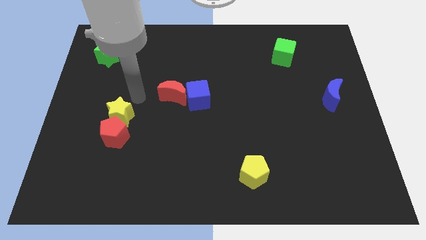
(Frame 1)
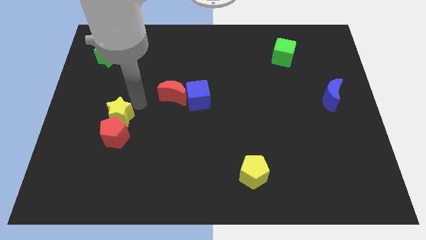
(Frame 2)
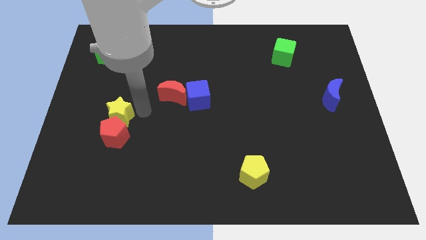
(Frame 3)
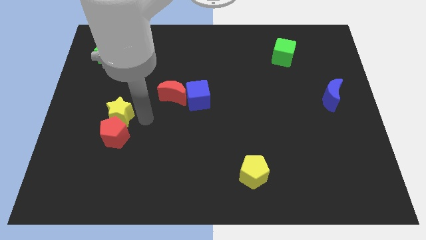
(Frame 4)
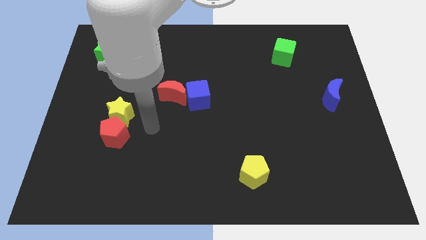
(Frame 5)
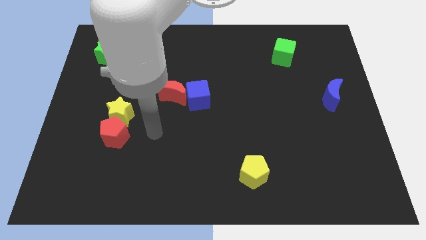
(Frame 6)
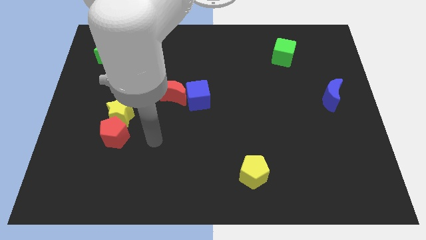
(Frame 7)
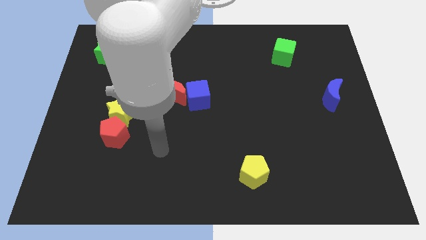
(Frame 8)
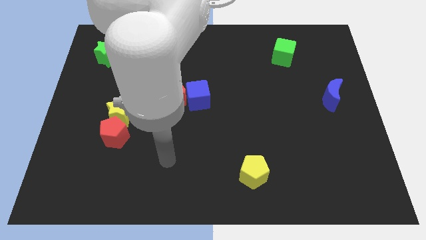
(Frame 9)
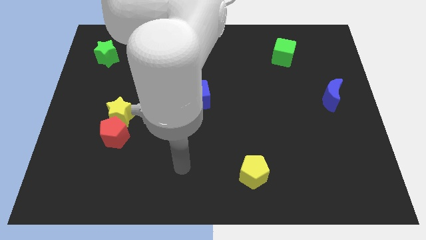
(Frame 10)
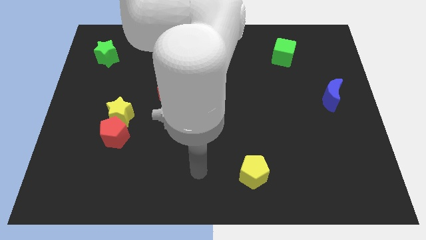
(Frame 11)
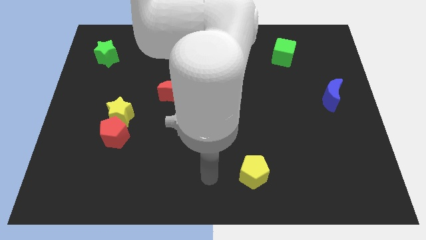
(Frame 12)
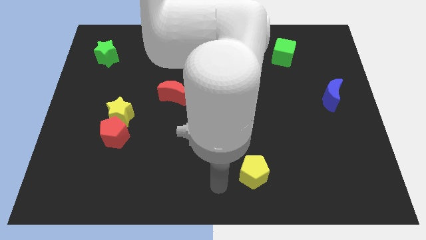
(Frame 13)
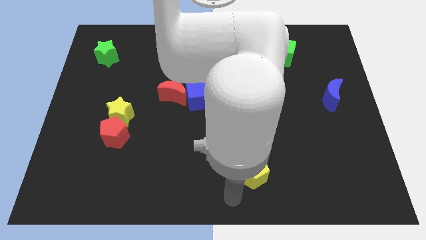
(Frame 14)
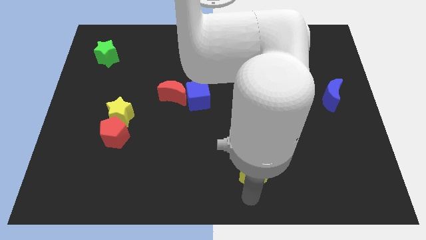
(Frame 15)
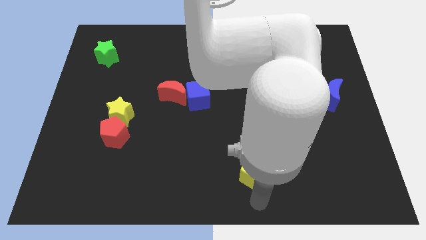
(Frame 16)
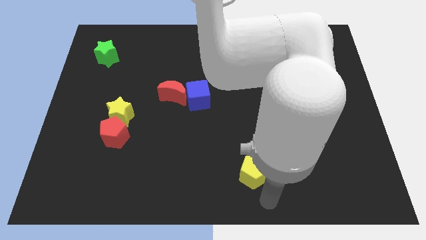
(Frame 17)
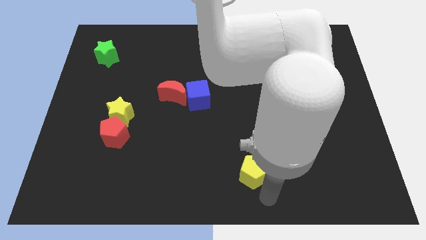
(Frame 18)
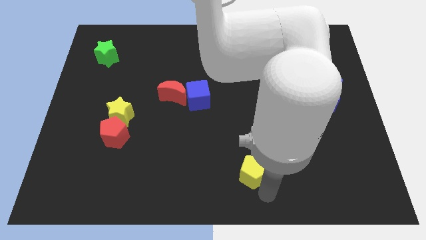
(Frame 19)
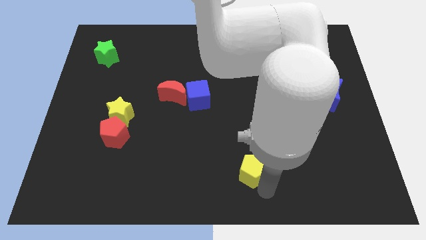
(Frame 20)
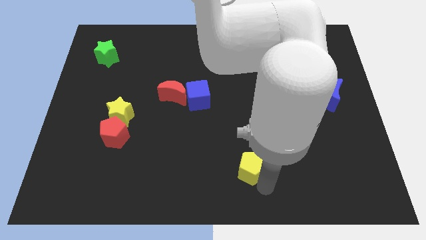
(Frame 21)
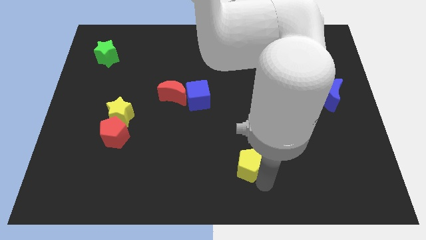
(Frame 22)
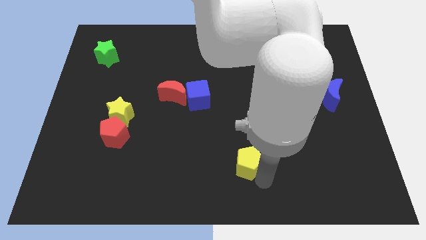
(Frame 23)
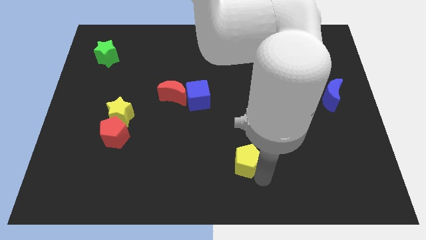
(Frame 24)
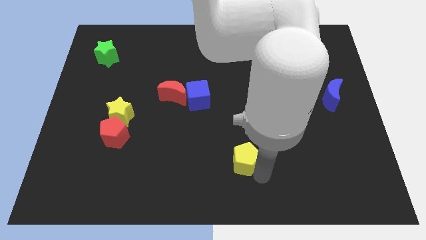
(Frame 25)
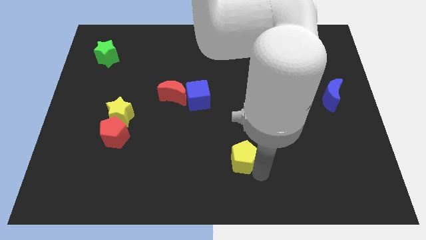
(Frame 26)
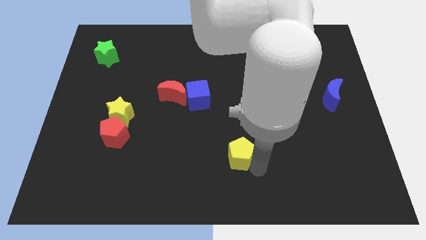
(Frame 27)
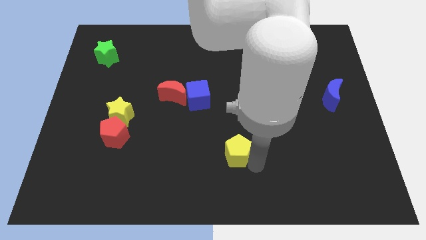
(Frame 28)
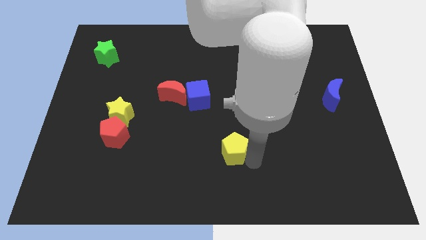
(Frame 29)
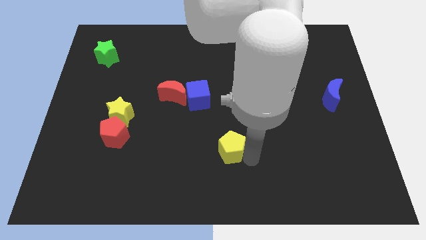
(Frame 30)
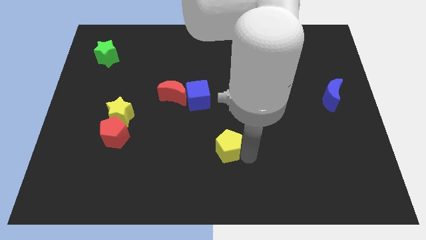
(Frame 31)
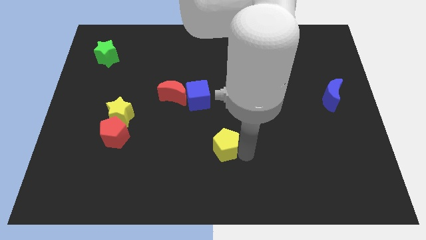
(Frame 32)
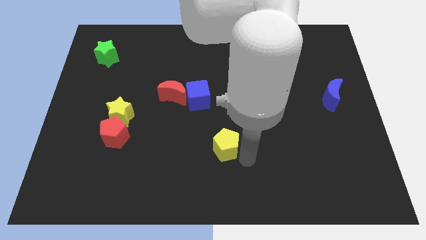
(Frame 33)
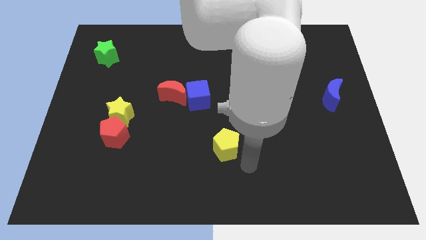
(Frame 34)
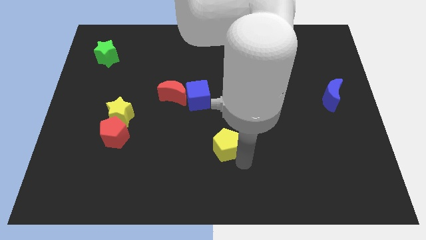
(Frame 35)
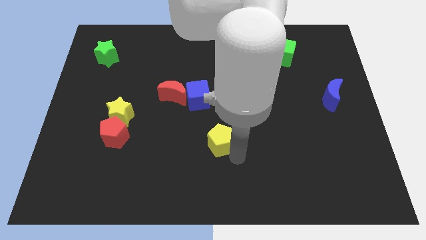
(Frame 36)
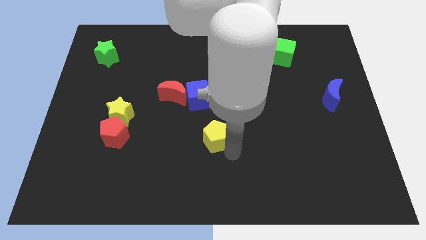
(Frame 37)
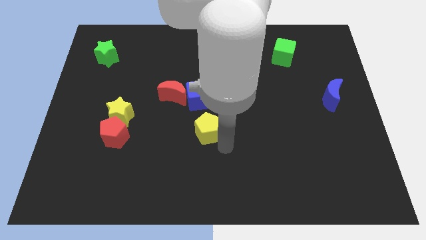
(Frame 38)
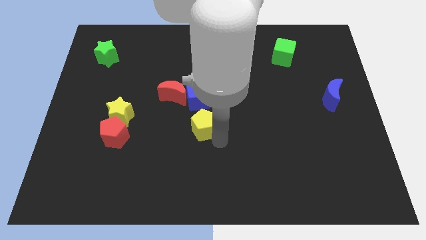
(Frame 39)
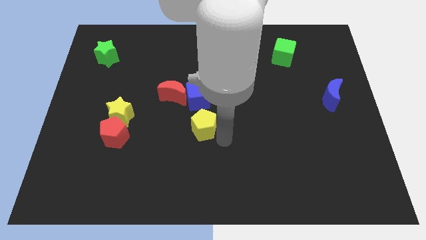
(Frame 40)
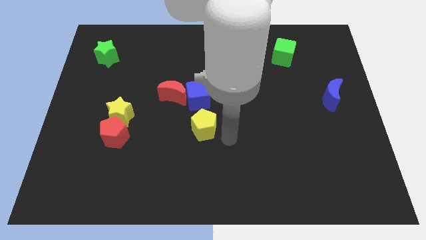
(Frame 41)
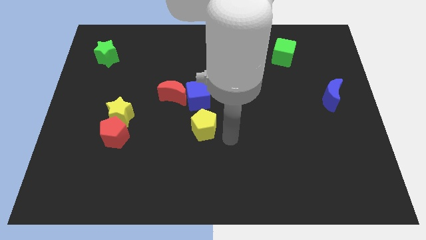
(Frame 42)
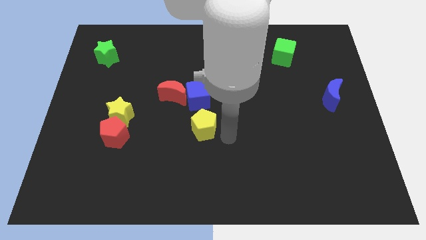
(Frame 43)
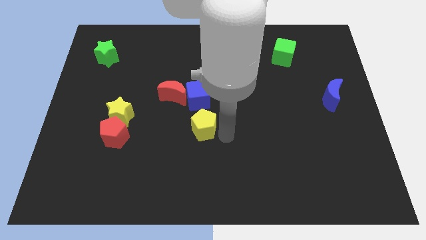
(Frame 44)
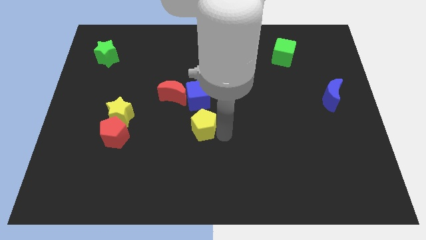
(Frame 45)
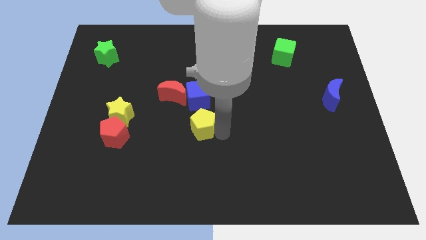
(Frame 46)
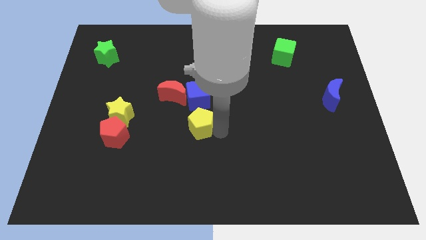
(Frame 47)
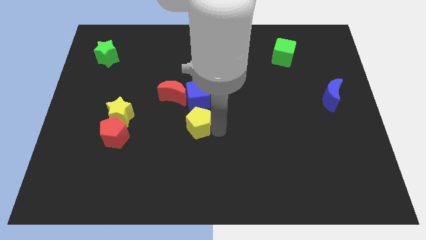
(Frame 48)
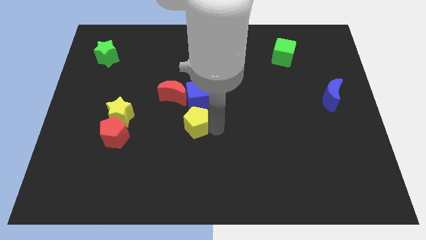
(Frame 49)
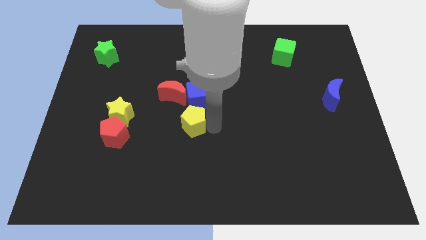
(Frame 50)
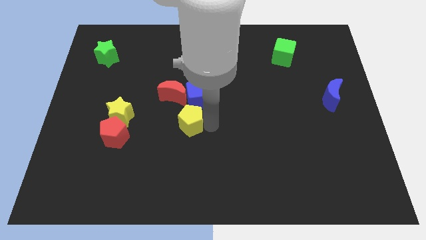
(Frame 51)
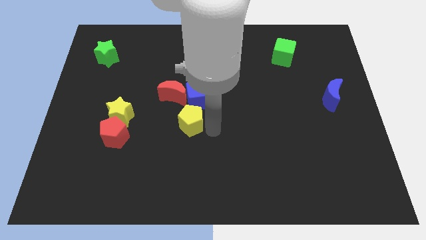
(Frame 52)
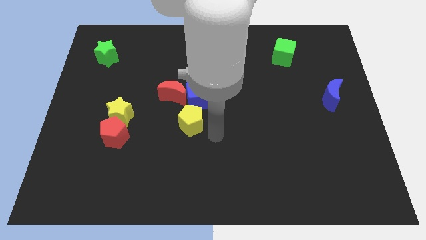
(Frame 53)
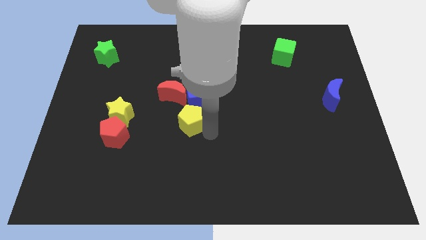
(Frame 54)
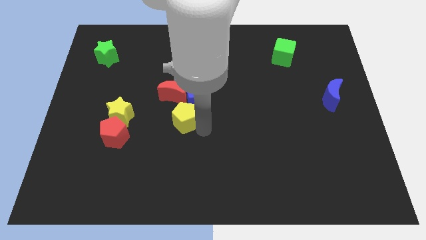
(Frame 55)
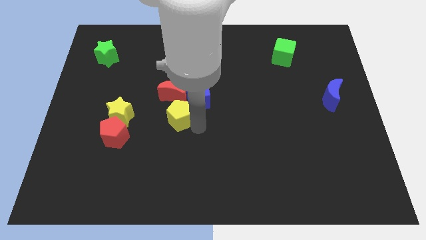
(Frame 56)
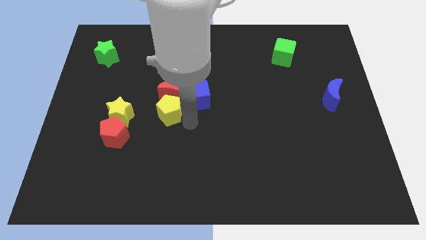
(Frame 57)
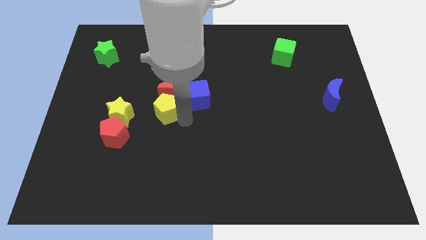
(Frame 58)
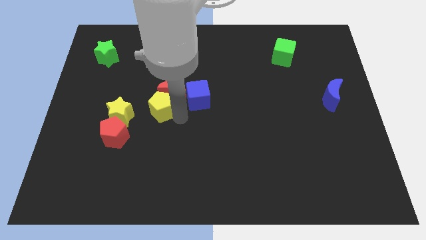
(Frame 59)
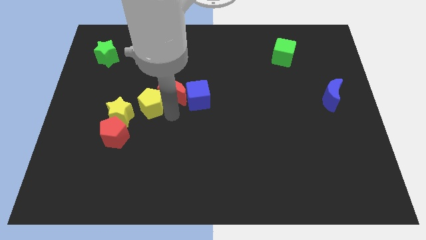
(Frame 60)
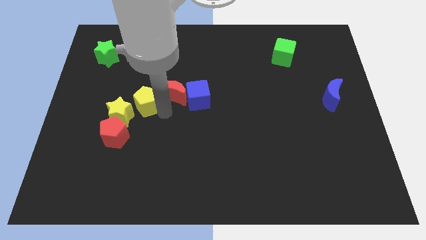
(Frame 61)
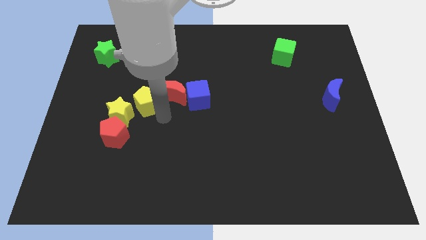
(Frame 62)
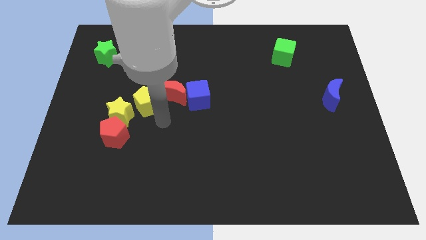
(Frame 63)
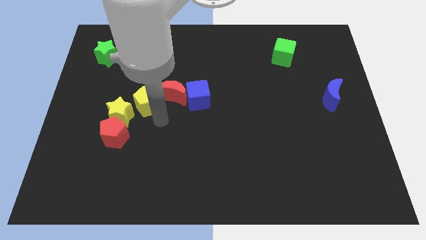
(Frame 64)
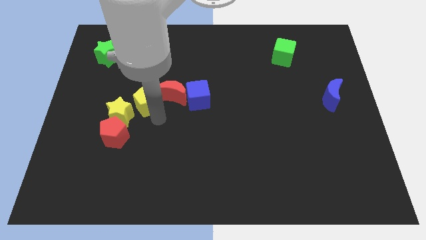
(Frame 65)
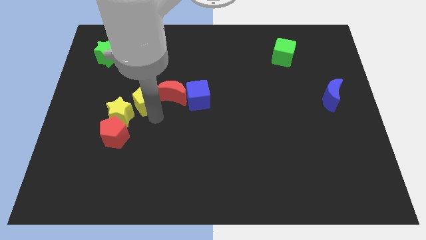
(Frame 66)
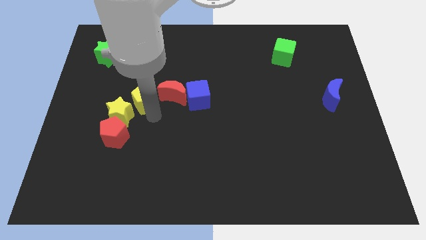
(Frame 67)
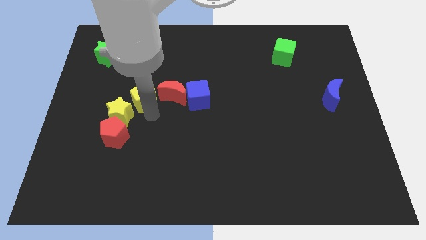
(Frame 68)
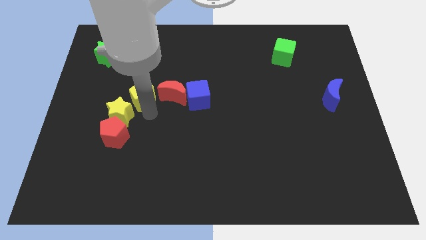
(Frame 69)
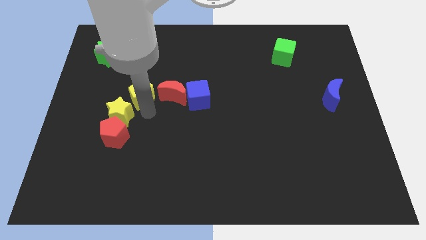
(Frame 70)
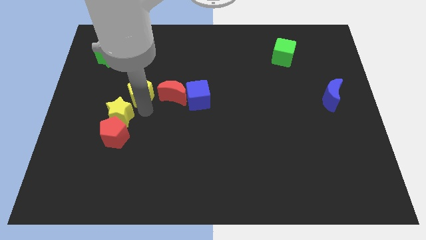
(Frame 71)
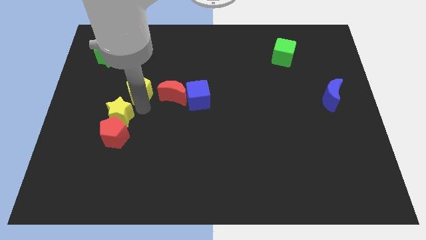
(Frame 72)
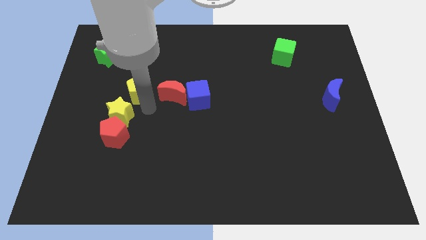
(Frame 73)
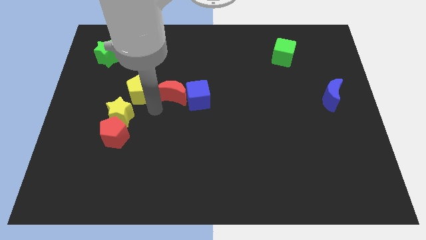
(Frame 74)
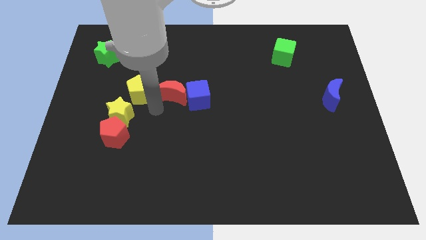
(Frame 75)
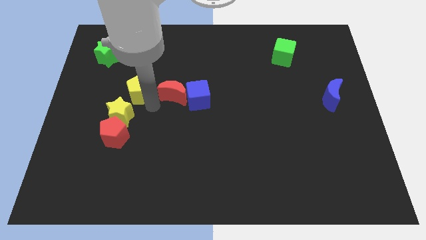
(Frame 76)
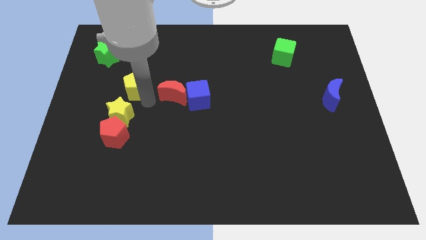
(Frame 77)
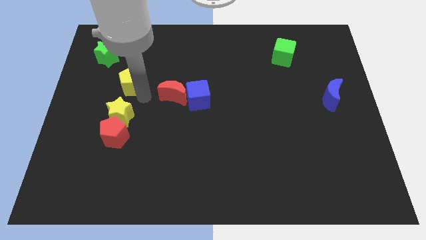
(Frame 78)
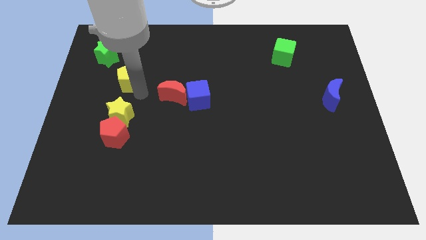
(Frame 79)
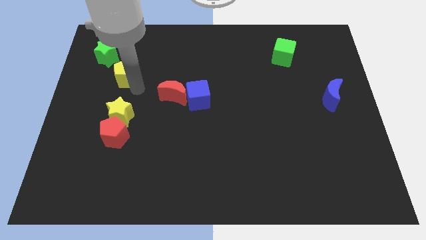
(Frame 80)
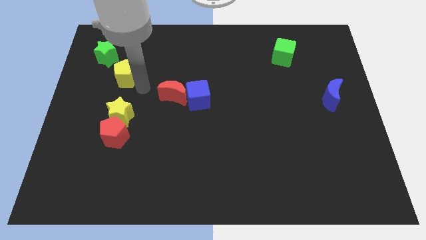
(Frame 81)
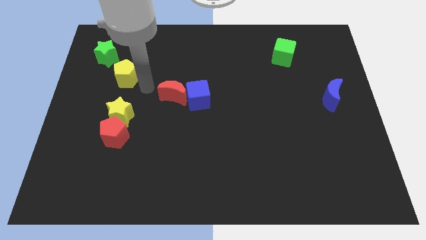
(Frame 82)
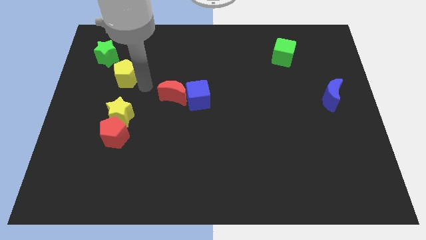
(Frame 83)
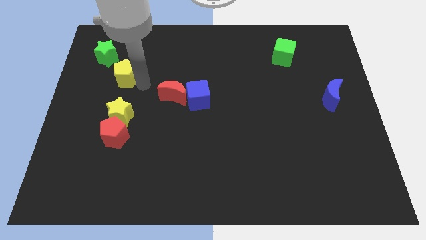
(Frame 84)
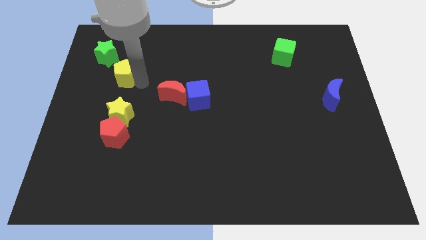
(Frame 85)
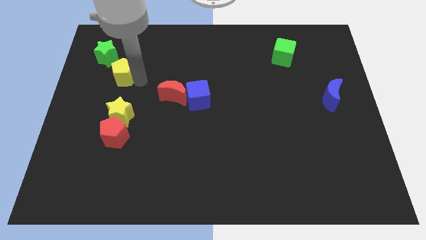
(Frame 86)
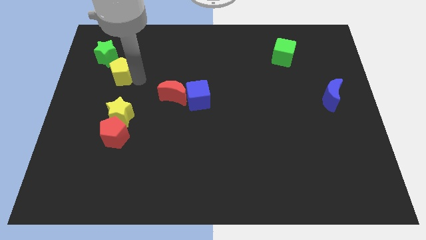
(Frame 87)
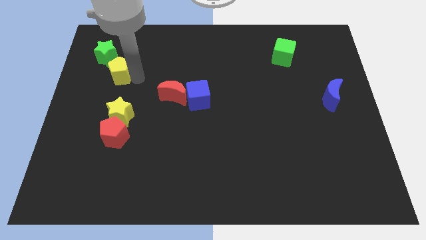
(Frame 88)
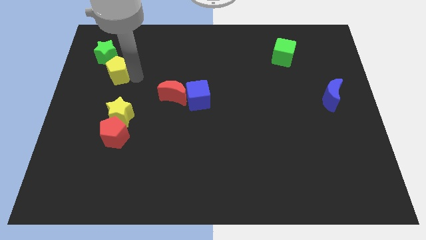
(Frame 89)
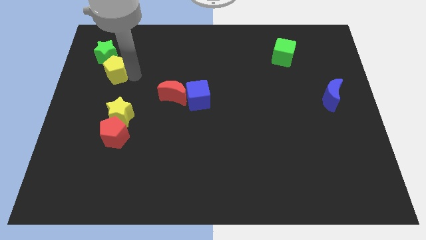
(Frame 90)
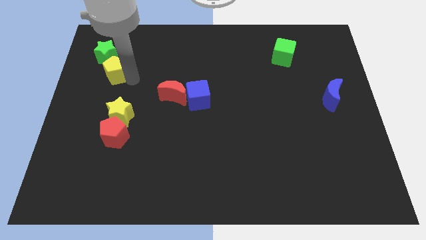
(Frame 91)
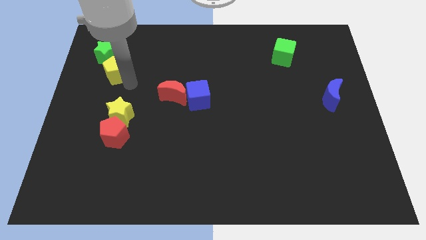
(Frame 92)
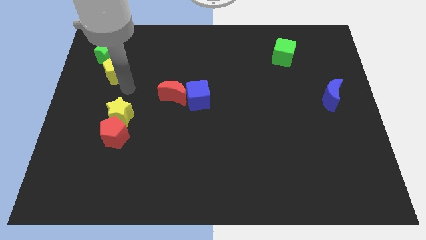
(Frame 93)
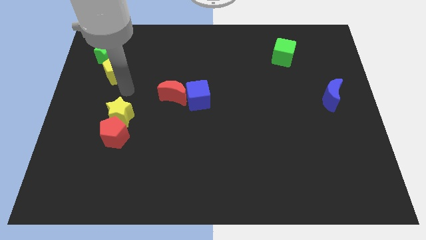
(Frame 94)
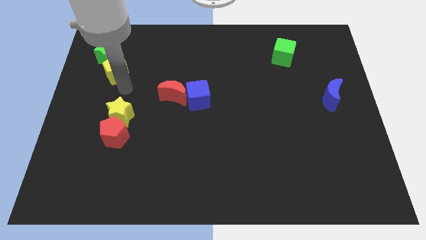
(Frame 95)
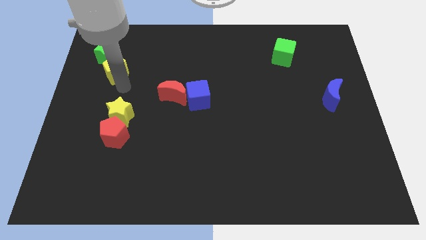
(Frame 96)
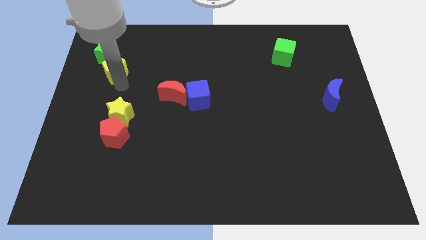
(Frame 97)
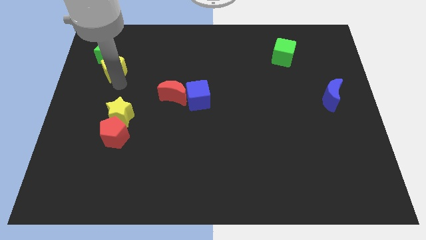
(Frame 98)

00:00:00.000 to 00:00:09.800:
slide the yellow pentagon towards the green star
